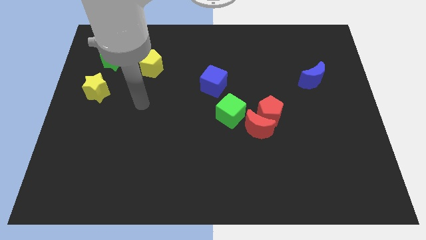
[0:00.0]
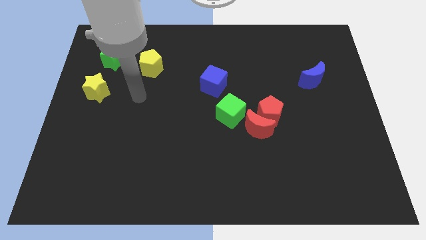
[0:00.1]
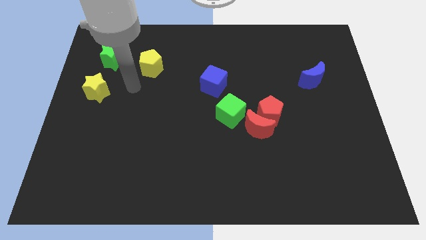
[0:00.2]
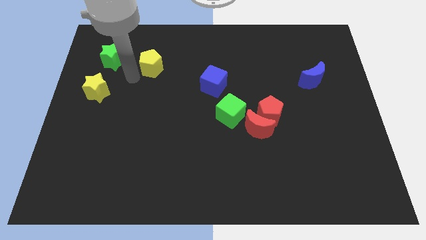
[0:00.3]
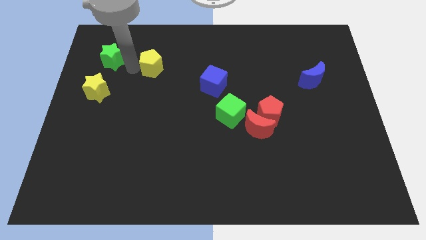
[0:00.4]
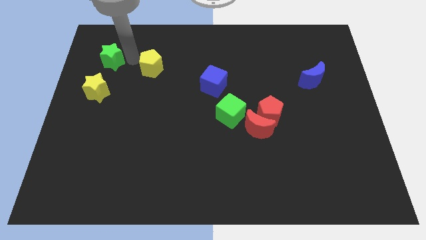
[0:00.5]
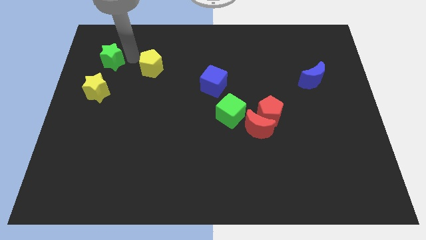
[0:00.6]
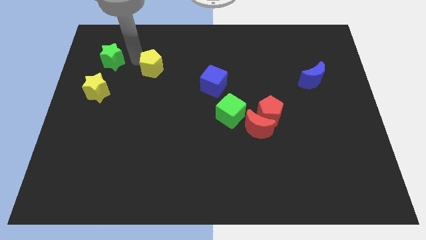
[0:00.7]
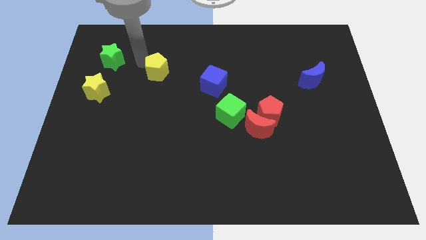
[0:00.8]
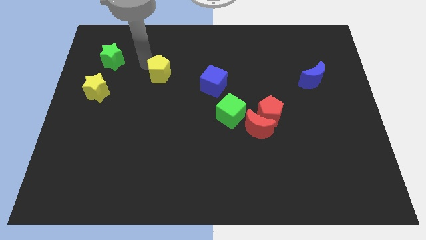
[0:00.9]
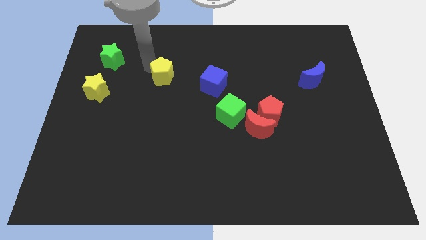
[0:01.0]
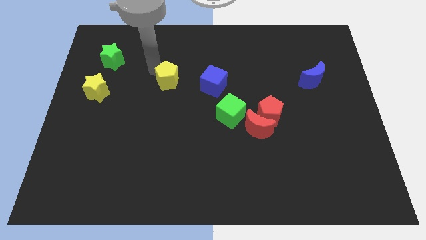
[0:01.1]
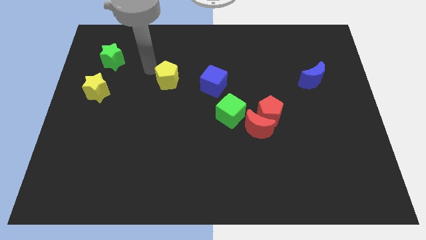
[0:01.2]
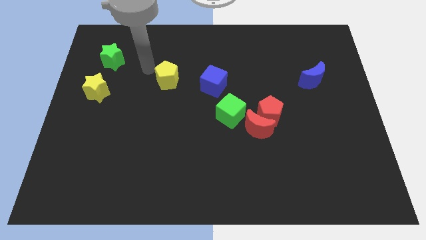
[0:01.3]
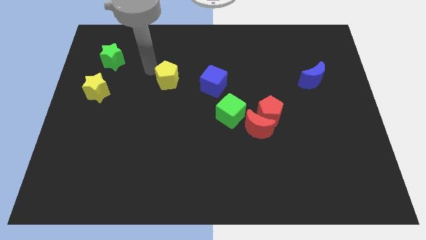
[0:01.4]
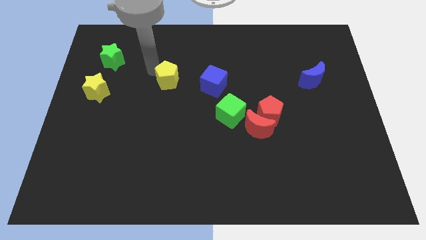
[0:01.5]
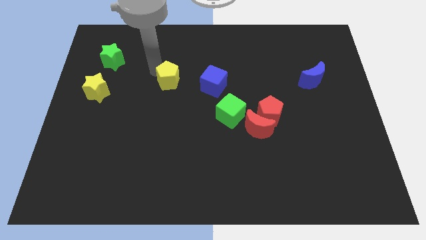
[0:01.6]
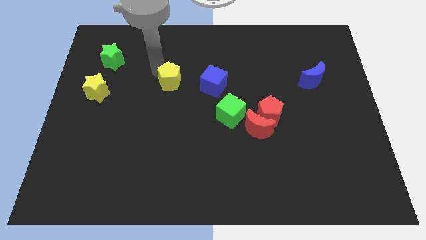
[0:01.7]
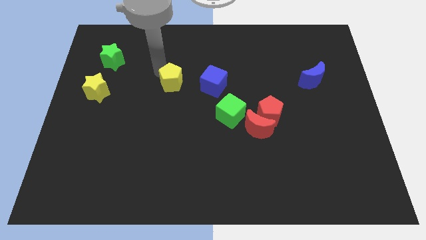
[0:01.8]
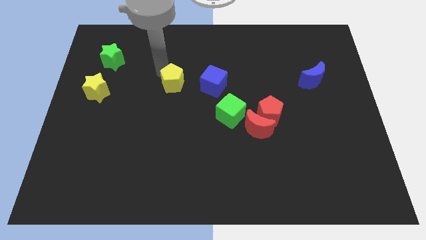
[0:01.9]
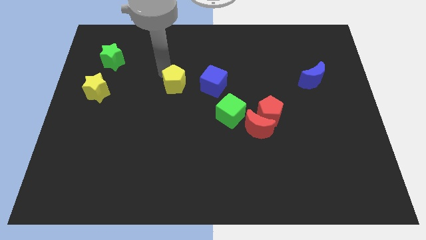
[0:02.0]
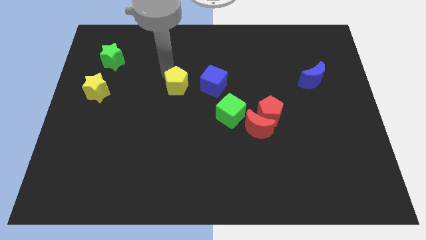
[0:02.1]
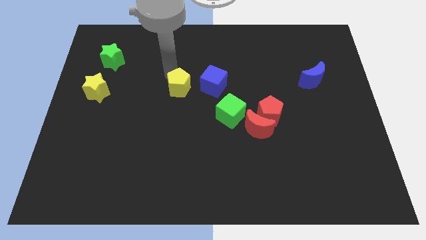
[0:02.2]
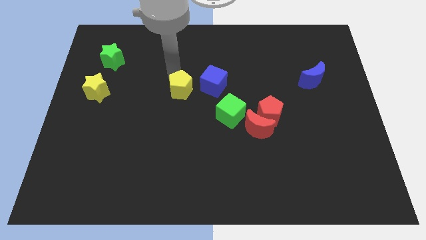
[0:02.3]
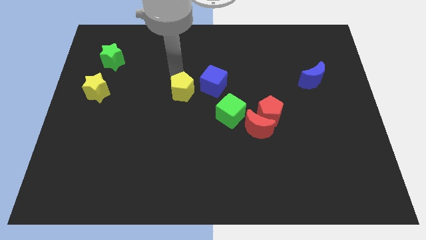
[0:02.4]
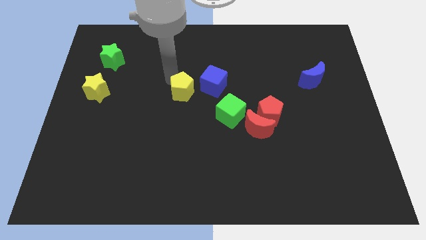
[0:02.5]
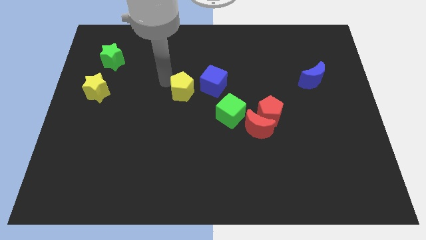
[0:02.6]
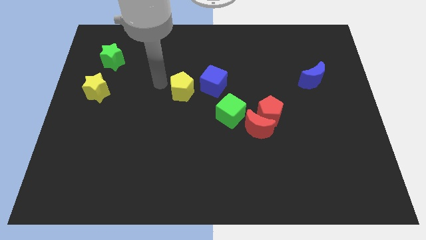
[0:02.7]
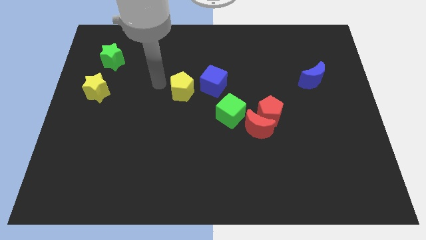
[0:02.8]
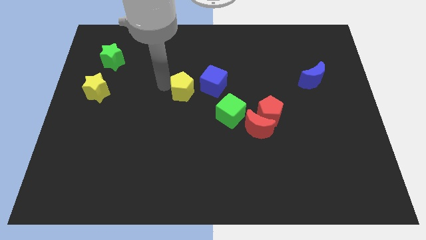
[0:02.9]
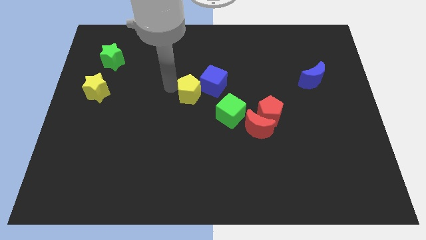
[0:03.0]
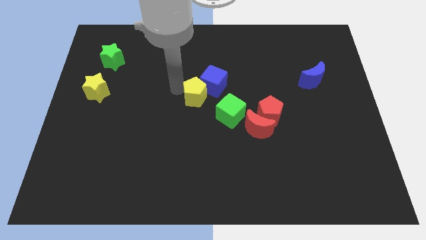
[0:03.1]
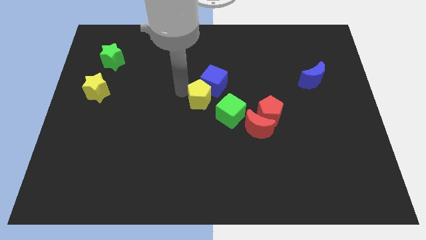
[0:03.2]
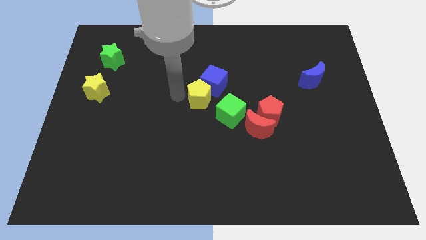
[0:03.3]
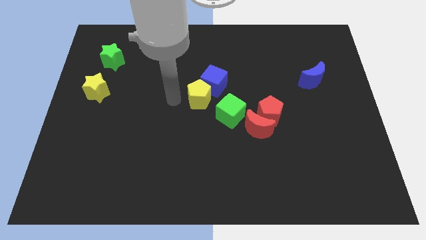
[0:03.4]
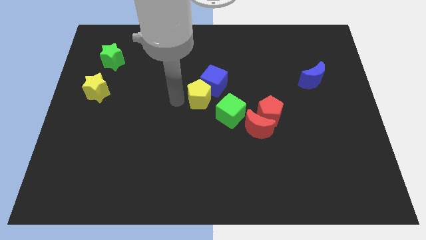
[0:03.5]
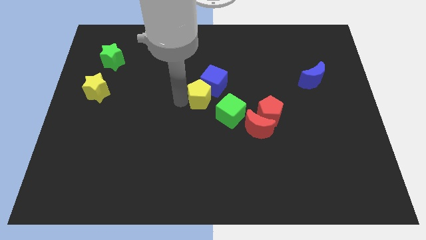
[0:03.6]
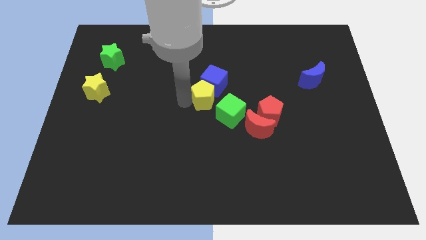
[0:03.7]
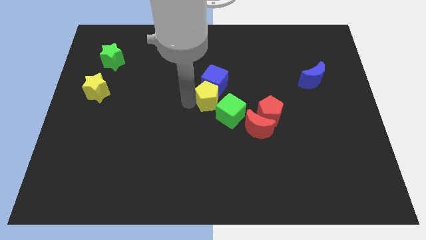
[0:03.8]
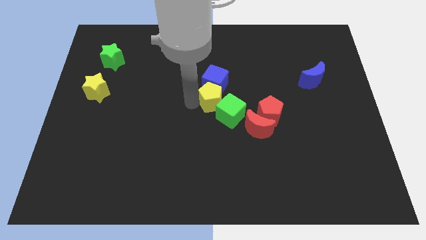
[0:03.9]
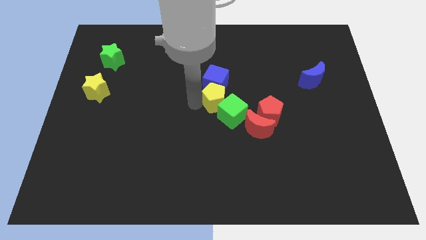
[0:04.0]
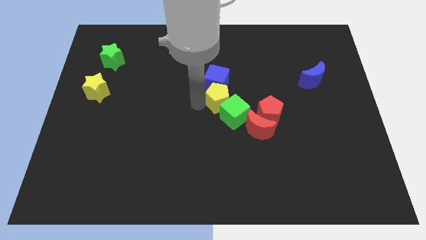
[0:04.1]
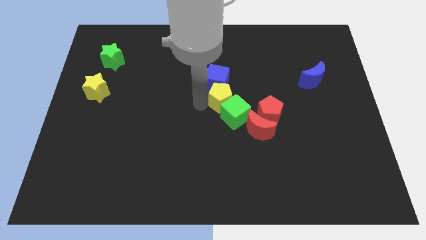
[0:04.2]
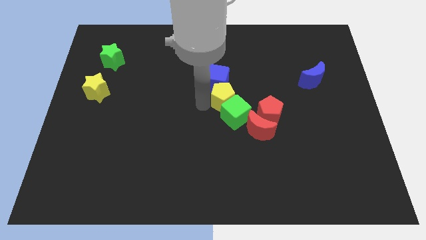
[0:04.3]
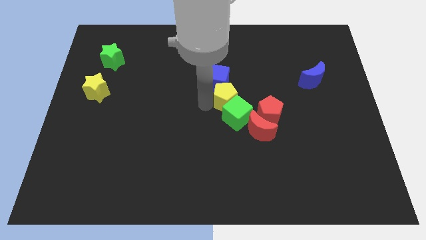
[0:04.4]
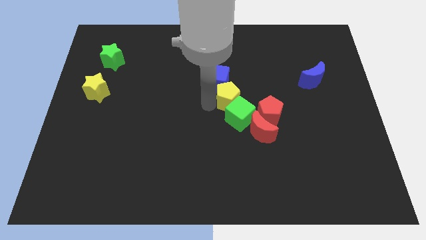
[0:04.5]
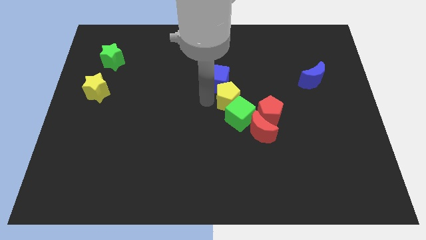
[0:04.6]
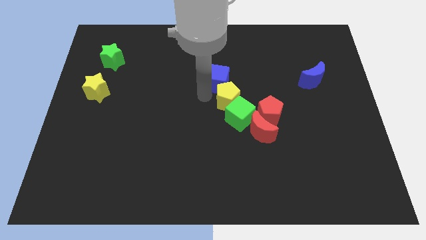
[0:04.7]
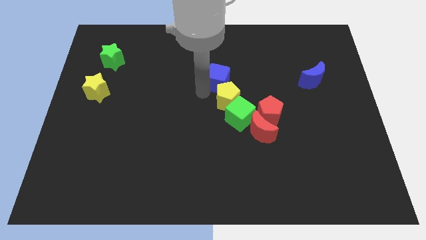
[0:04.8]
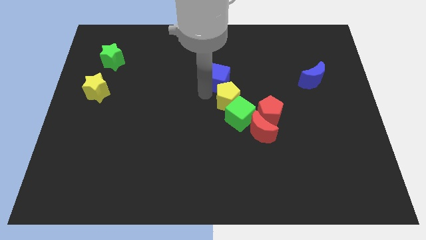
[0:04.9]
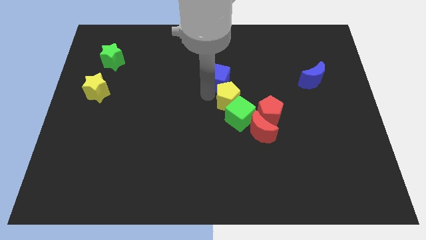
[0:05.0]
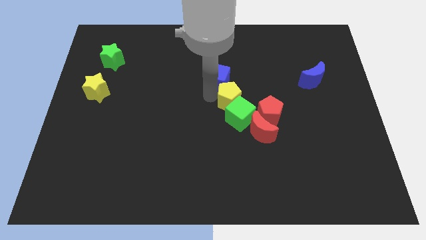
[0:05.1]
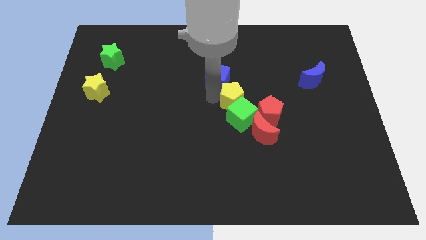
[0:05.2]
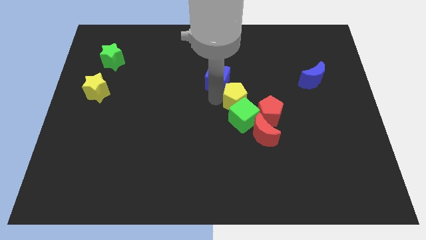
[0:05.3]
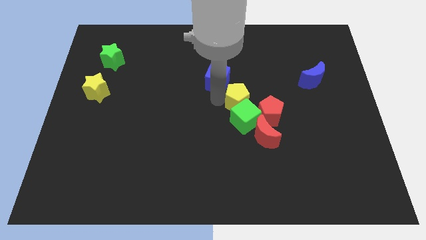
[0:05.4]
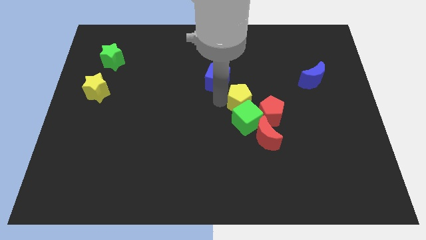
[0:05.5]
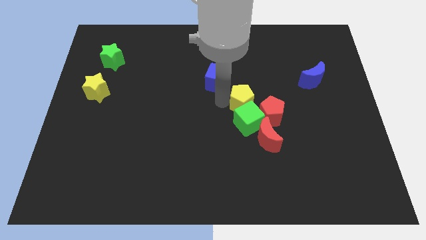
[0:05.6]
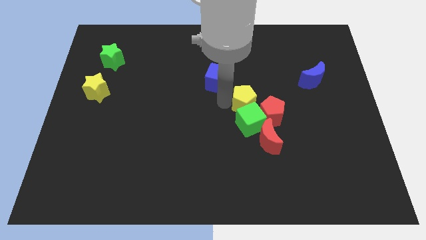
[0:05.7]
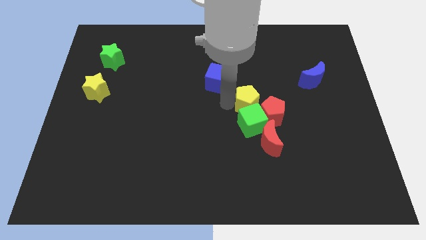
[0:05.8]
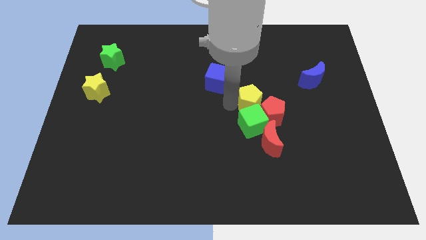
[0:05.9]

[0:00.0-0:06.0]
put the yellow pentagon to the red pentagon

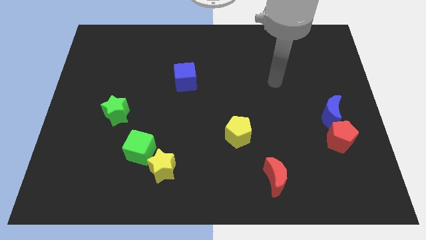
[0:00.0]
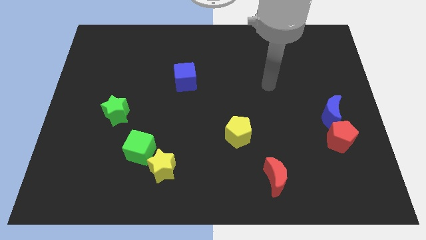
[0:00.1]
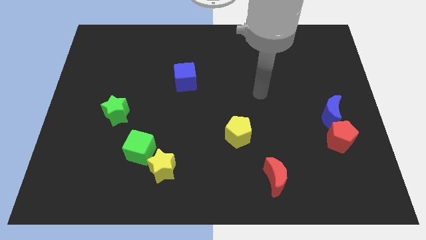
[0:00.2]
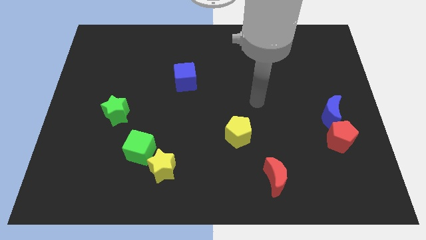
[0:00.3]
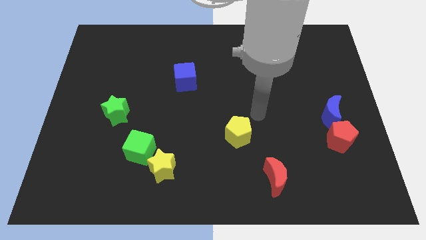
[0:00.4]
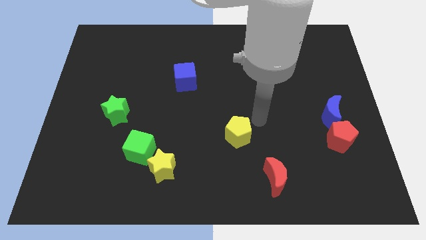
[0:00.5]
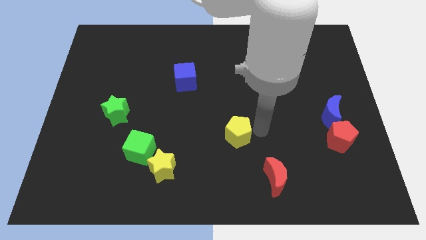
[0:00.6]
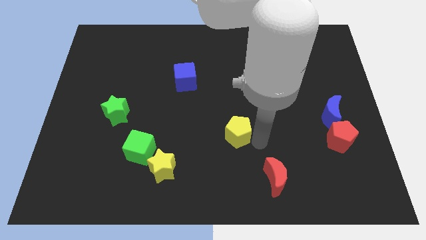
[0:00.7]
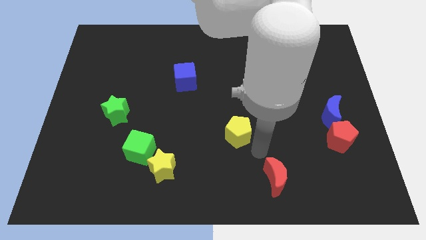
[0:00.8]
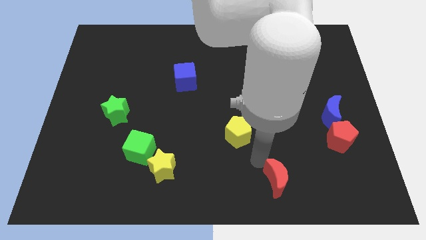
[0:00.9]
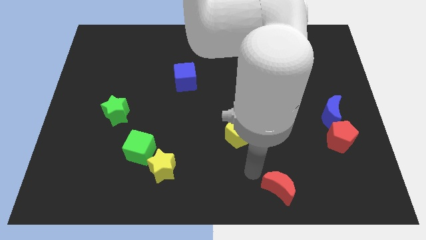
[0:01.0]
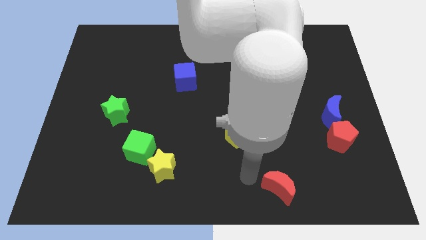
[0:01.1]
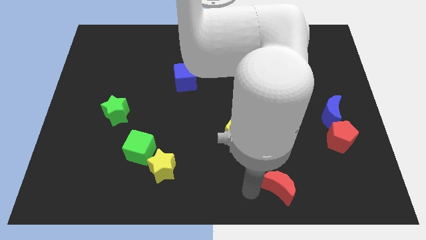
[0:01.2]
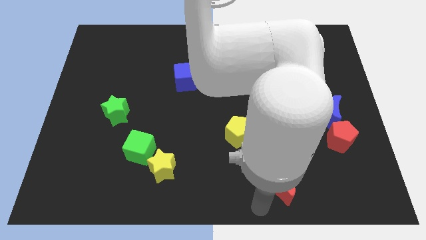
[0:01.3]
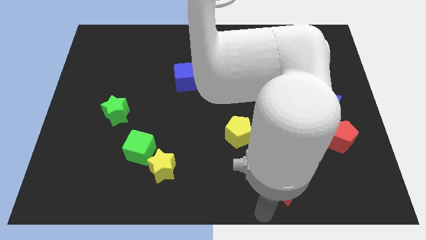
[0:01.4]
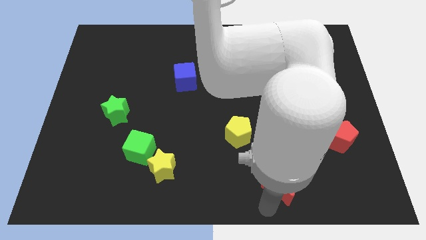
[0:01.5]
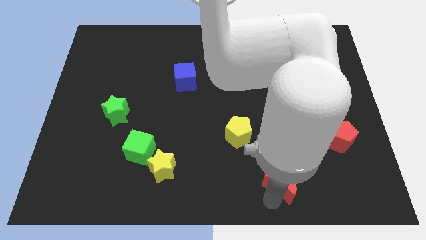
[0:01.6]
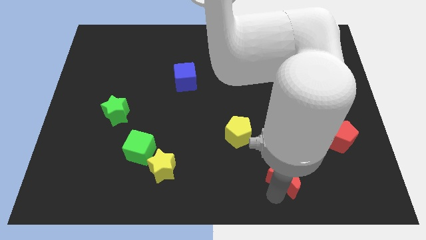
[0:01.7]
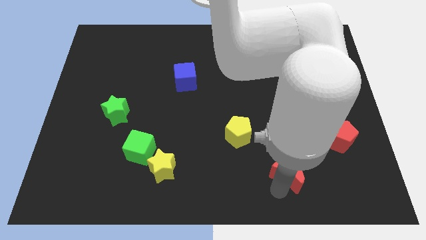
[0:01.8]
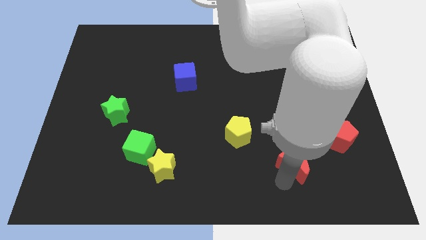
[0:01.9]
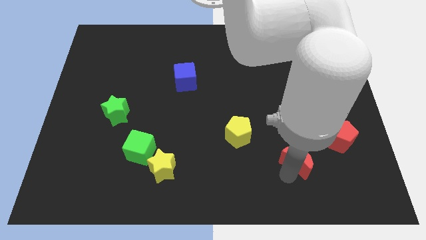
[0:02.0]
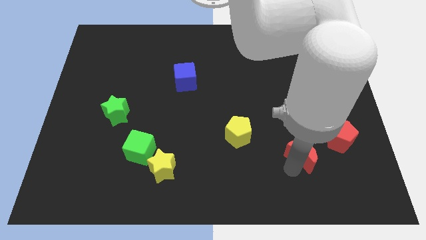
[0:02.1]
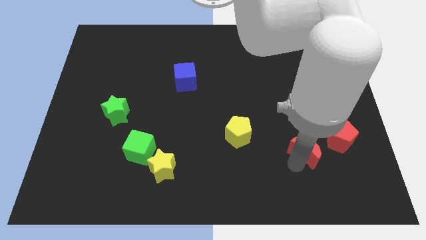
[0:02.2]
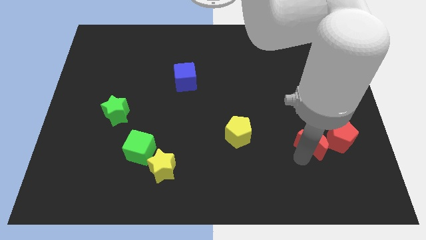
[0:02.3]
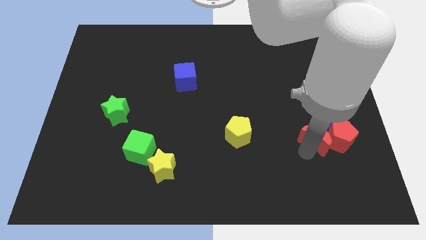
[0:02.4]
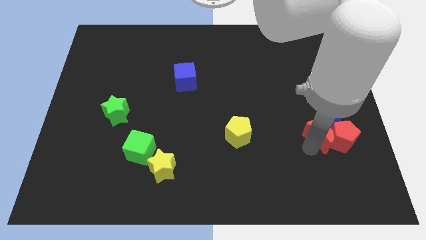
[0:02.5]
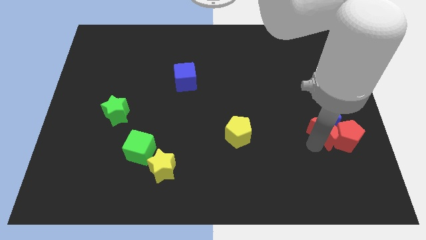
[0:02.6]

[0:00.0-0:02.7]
put the red moon next to the blue moon
